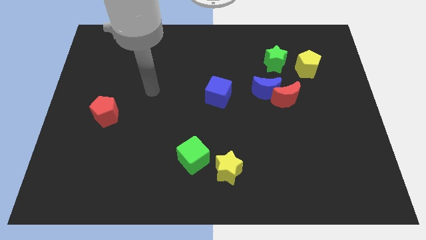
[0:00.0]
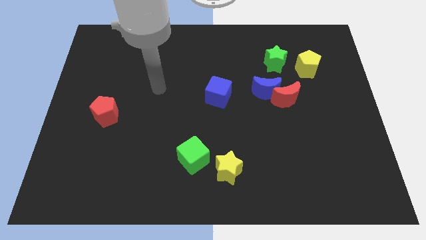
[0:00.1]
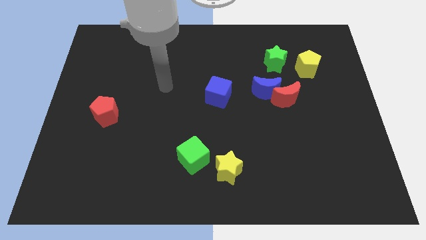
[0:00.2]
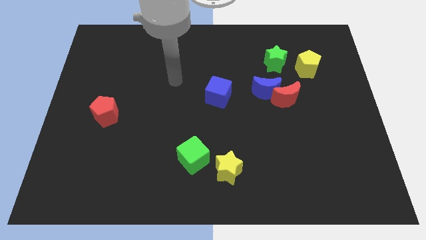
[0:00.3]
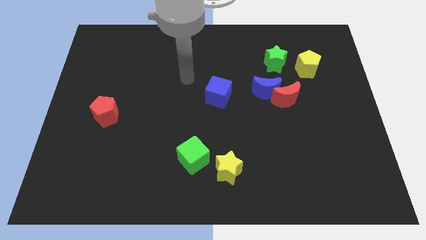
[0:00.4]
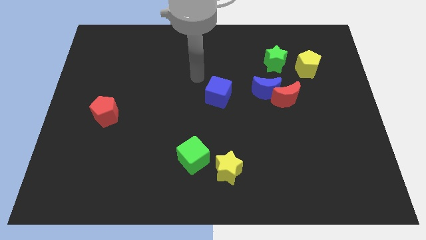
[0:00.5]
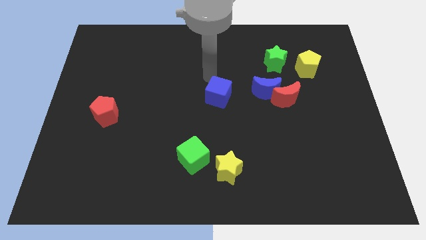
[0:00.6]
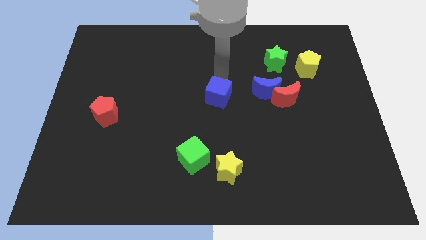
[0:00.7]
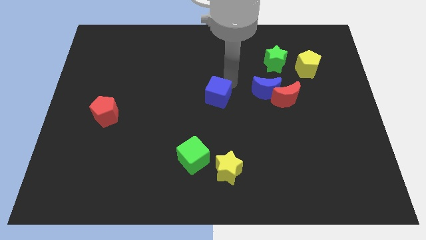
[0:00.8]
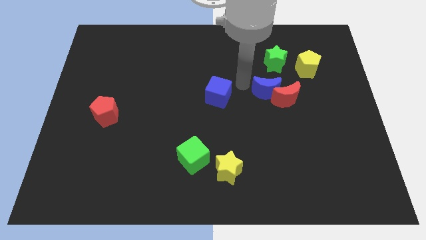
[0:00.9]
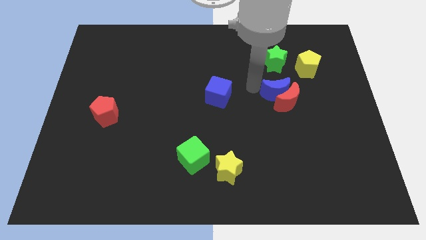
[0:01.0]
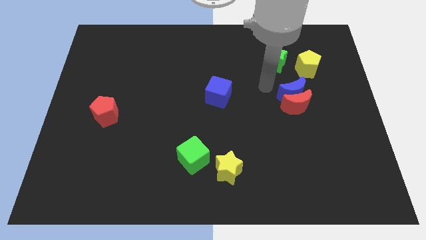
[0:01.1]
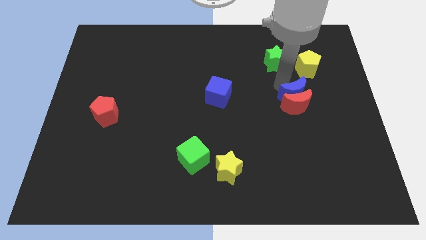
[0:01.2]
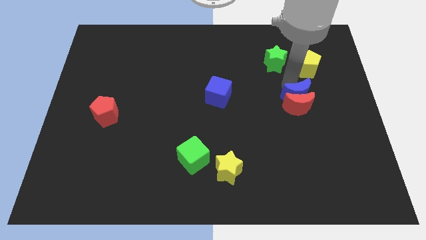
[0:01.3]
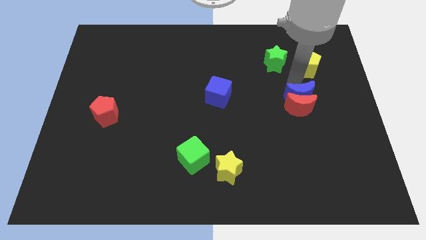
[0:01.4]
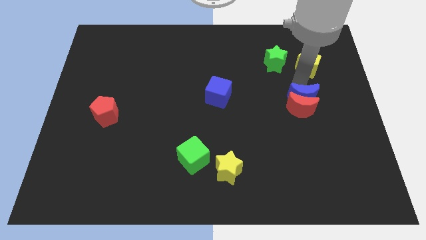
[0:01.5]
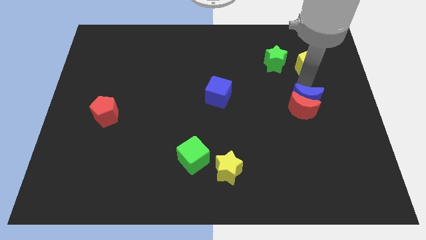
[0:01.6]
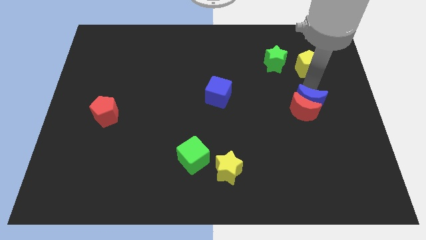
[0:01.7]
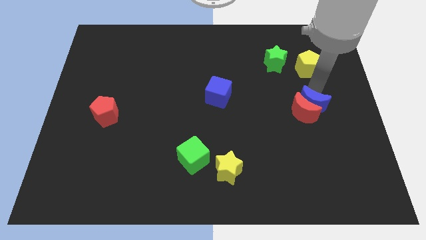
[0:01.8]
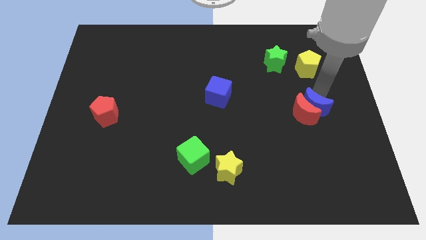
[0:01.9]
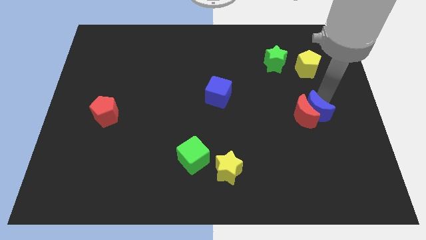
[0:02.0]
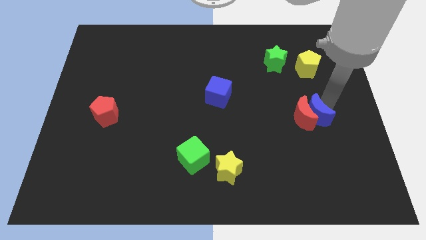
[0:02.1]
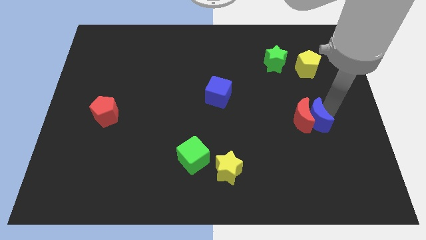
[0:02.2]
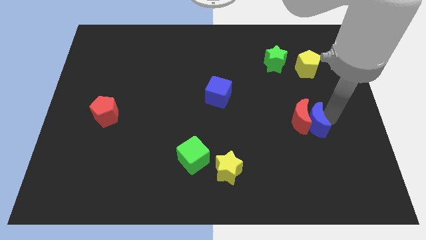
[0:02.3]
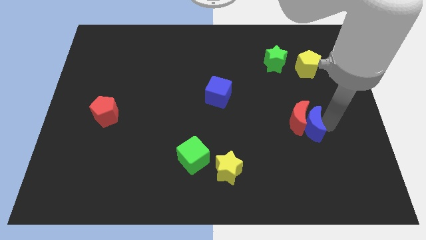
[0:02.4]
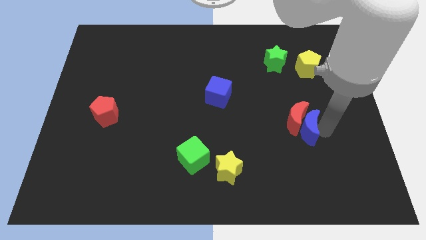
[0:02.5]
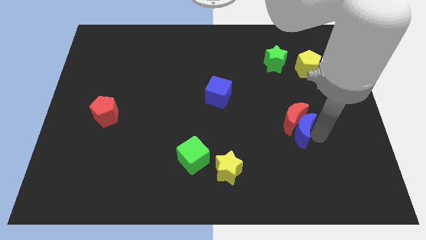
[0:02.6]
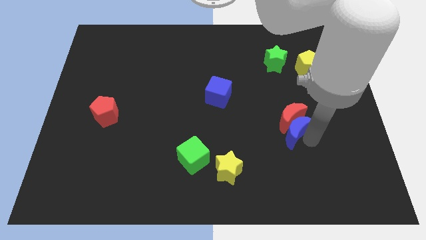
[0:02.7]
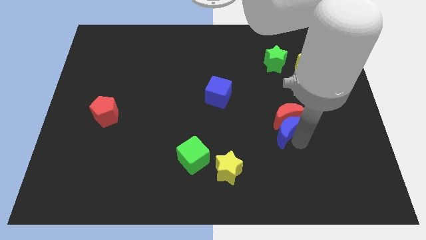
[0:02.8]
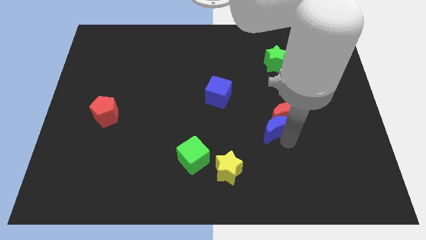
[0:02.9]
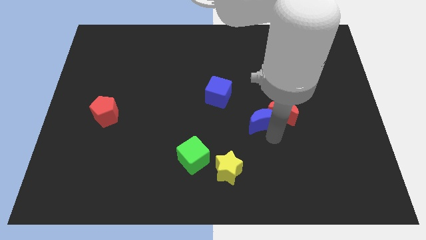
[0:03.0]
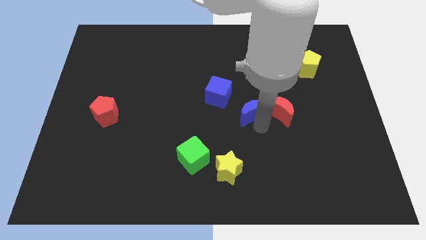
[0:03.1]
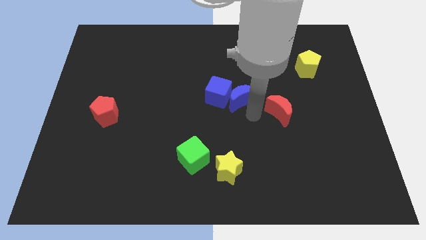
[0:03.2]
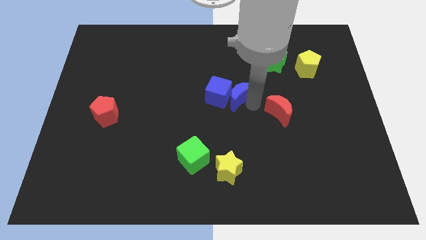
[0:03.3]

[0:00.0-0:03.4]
separate the red moon from the blue moon

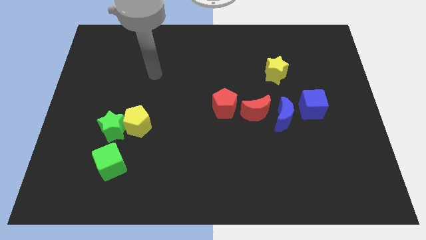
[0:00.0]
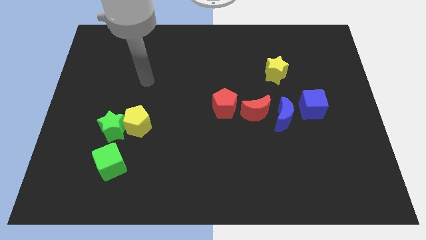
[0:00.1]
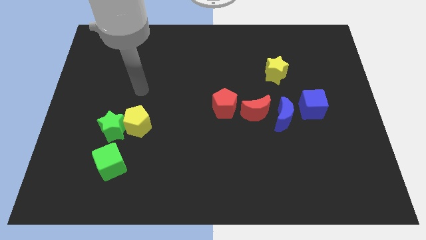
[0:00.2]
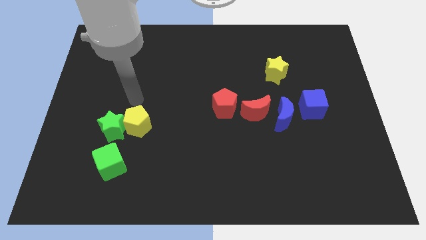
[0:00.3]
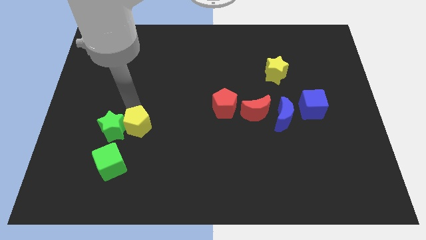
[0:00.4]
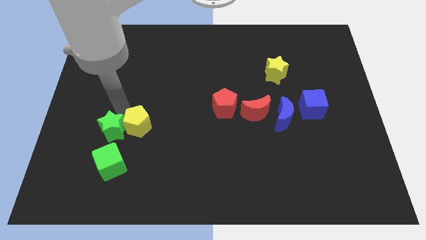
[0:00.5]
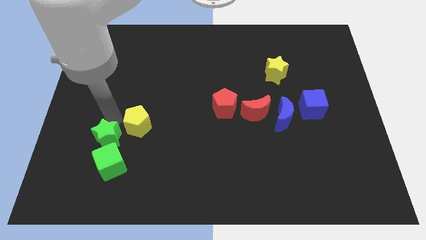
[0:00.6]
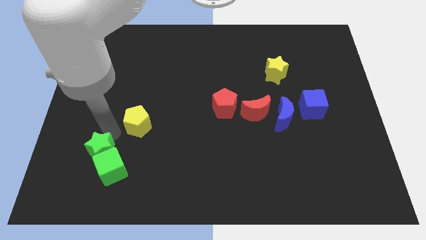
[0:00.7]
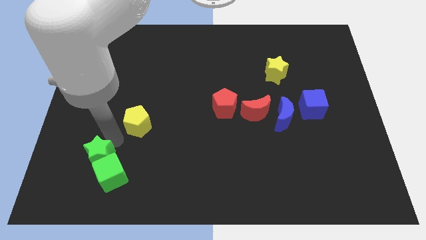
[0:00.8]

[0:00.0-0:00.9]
move the yellow pentagon away from the green star

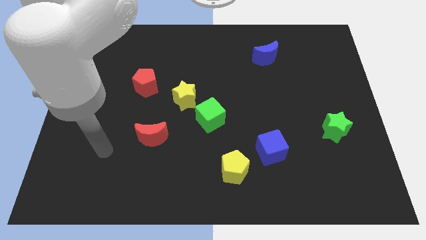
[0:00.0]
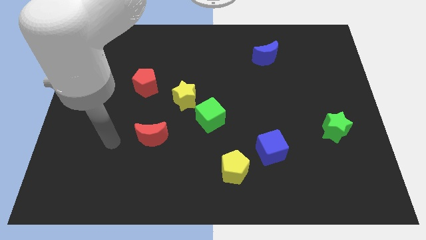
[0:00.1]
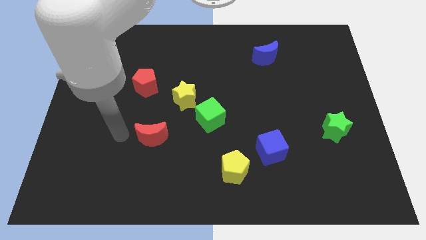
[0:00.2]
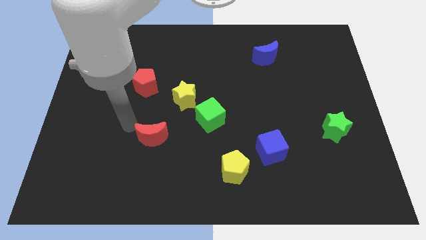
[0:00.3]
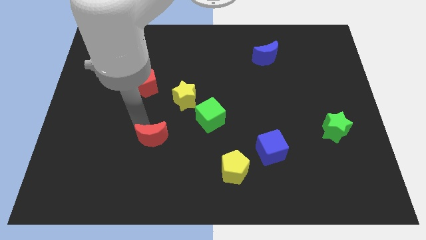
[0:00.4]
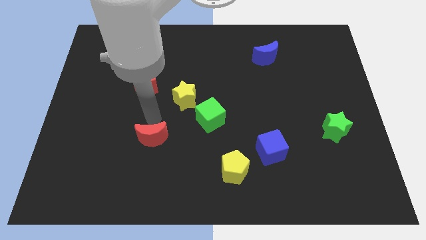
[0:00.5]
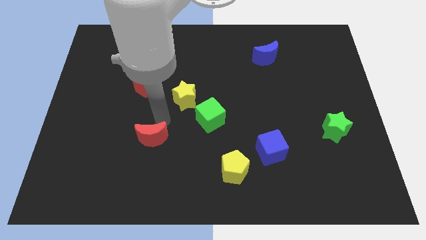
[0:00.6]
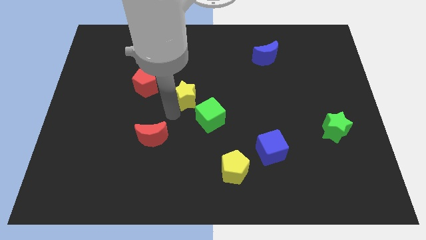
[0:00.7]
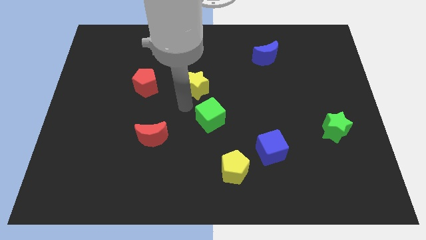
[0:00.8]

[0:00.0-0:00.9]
move the green cube away from the yellow star

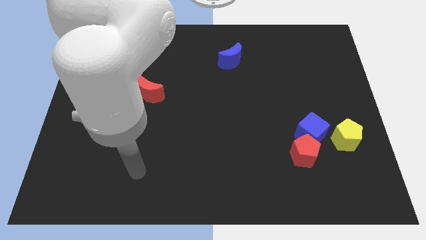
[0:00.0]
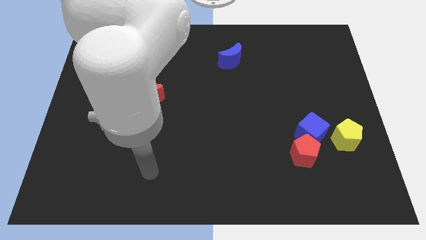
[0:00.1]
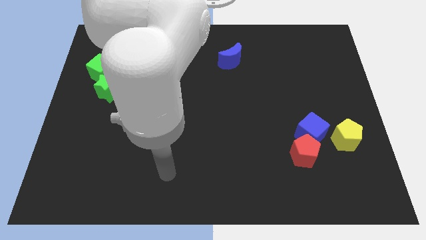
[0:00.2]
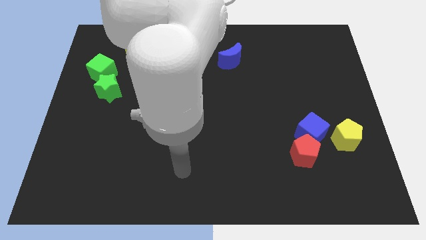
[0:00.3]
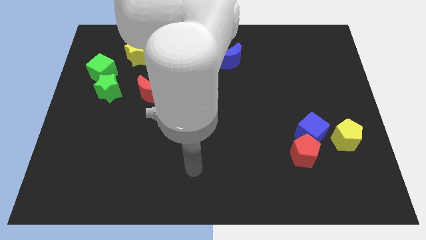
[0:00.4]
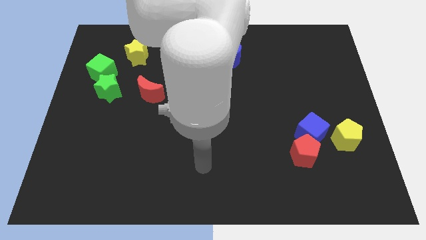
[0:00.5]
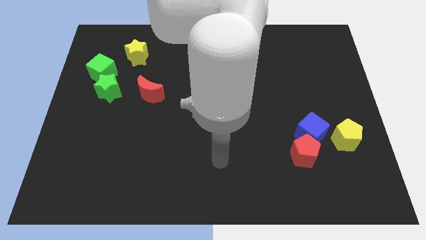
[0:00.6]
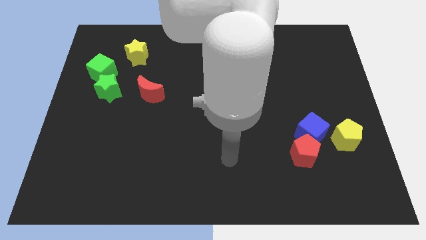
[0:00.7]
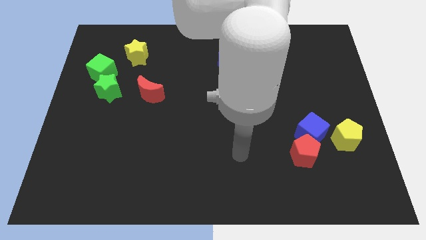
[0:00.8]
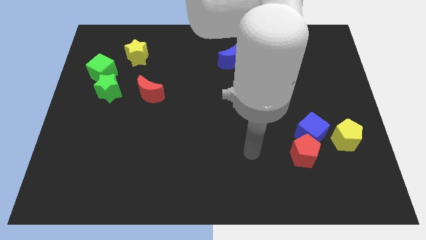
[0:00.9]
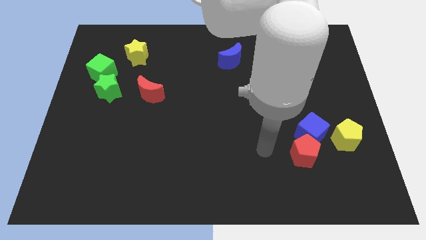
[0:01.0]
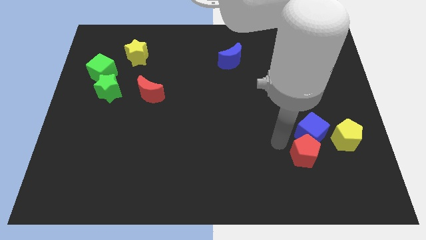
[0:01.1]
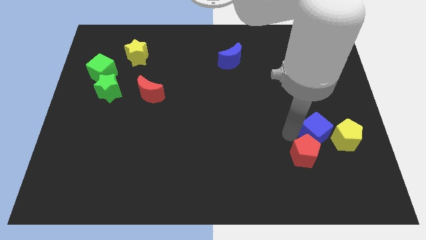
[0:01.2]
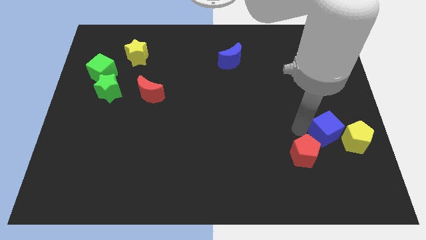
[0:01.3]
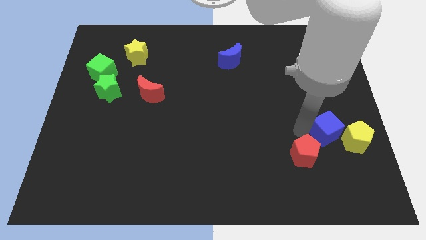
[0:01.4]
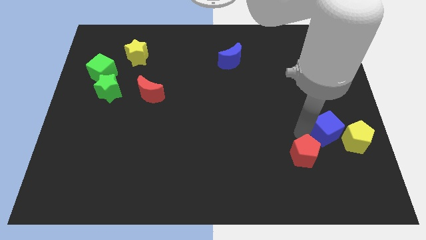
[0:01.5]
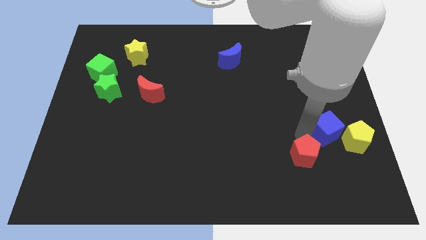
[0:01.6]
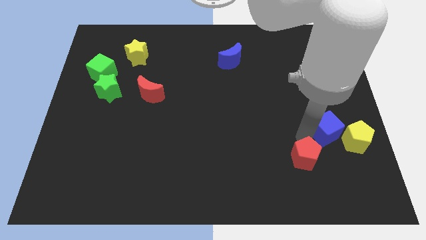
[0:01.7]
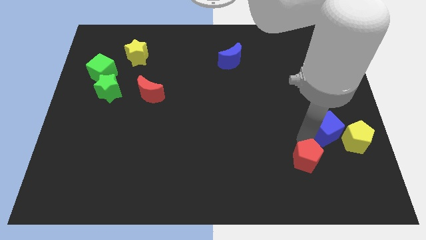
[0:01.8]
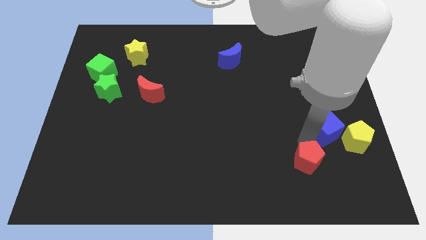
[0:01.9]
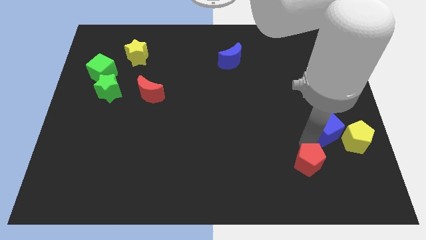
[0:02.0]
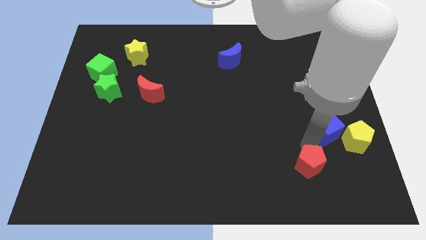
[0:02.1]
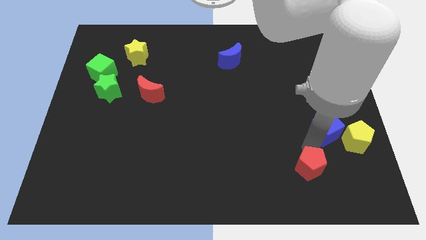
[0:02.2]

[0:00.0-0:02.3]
pull the red pentagon apart from the blue cube

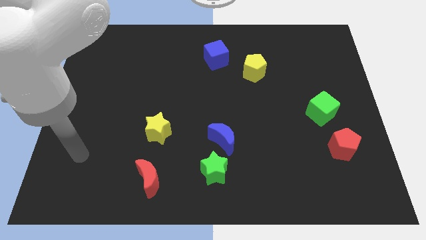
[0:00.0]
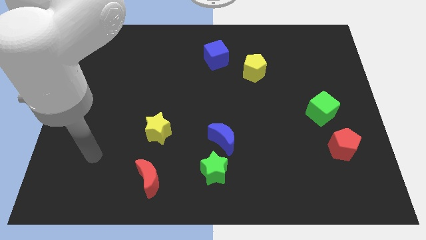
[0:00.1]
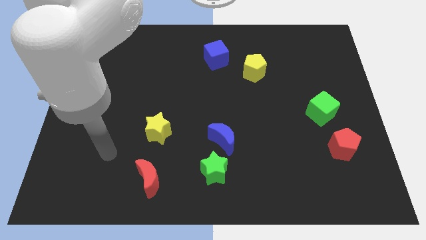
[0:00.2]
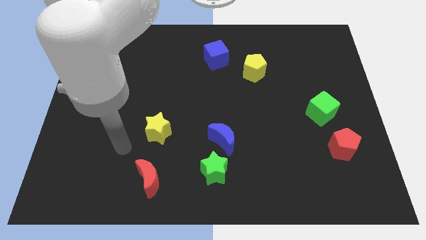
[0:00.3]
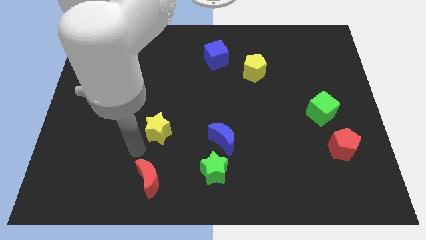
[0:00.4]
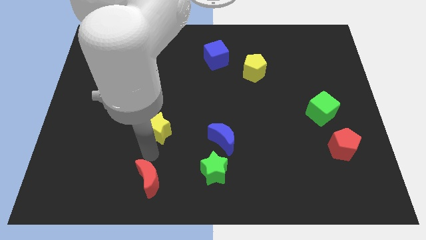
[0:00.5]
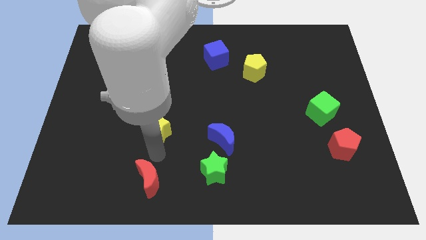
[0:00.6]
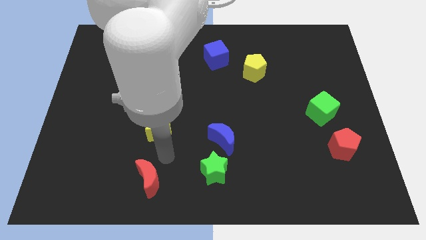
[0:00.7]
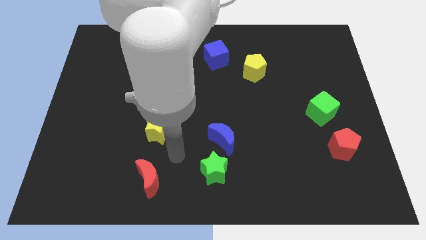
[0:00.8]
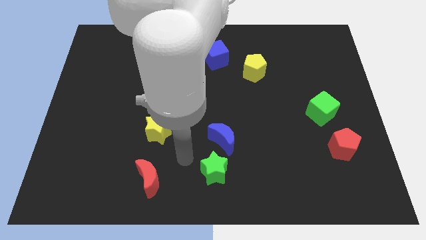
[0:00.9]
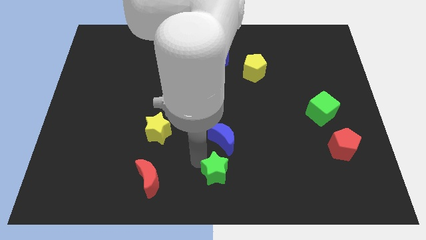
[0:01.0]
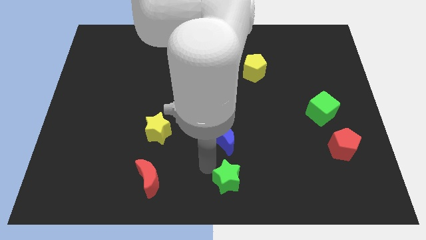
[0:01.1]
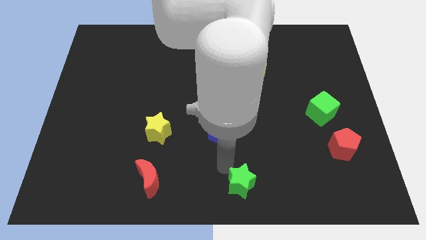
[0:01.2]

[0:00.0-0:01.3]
pull the blue moon apart from the green star

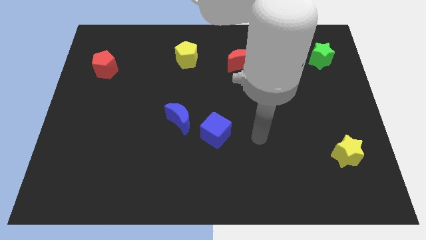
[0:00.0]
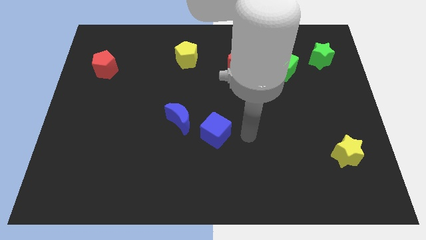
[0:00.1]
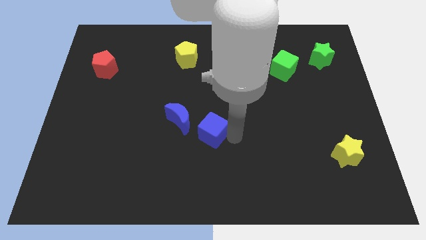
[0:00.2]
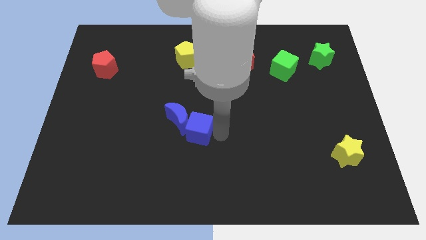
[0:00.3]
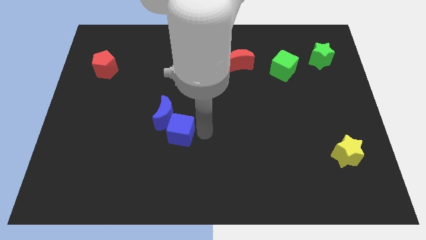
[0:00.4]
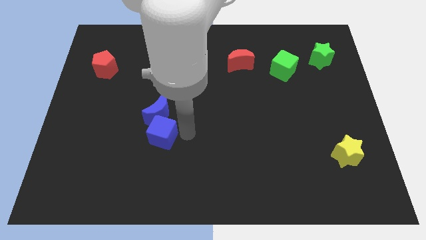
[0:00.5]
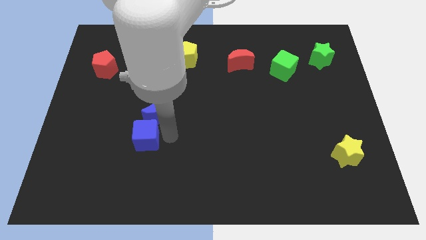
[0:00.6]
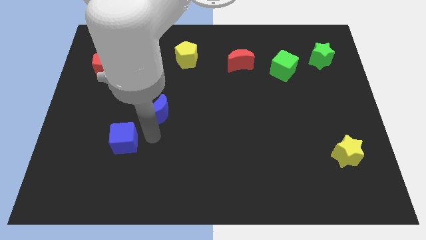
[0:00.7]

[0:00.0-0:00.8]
pull the blue moon apart from the blue cube
